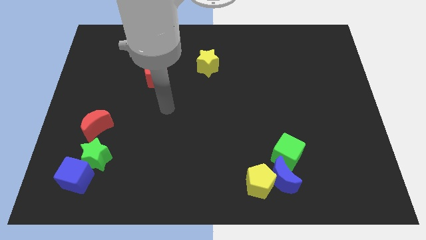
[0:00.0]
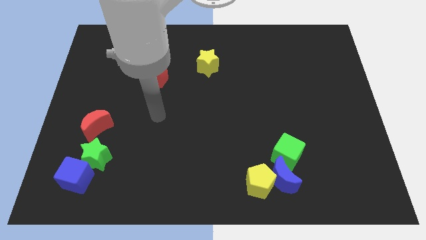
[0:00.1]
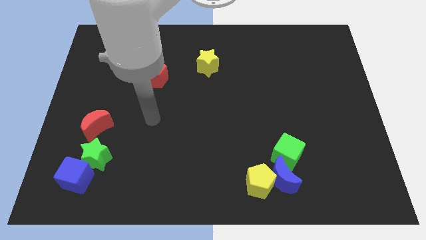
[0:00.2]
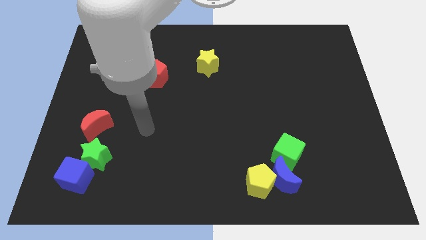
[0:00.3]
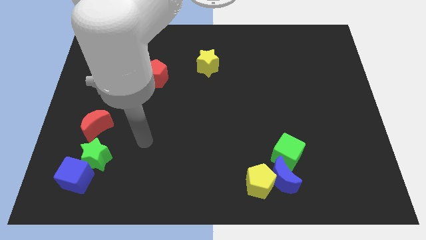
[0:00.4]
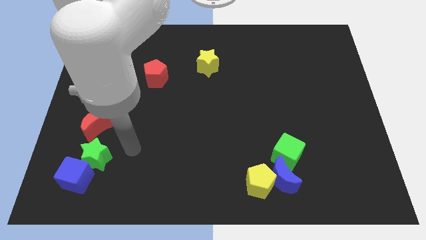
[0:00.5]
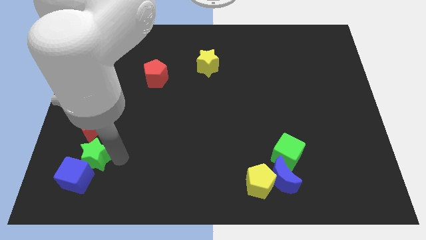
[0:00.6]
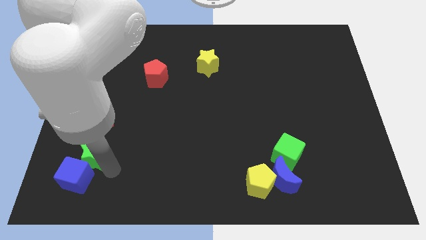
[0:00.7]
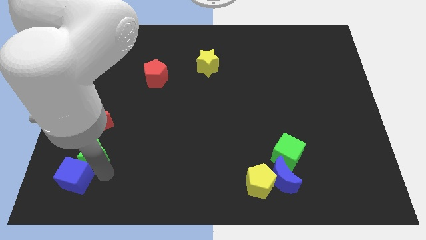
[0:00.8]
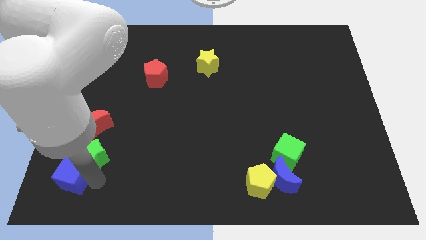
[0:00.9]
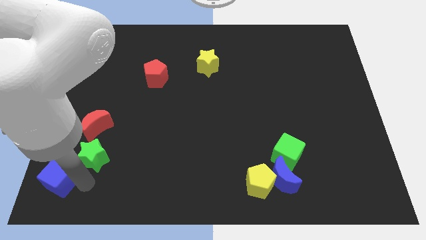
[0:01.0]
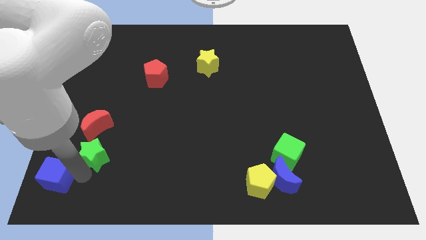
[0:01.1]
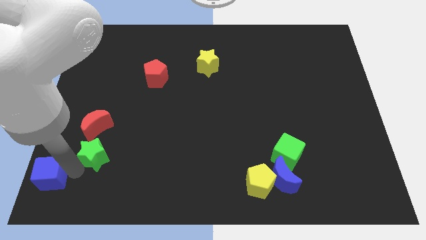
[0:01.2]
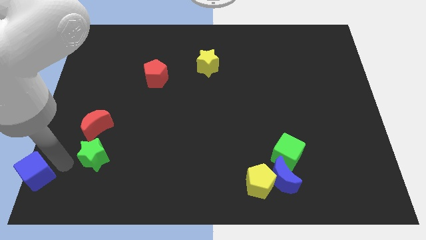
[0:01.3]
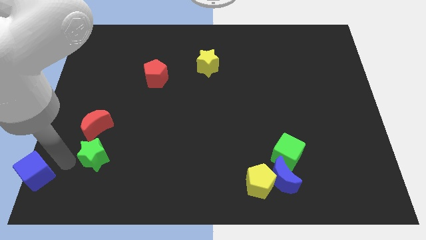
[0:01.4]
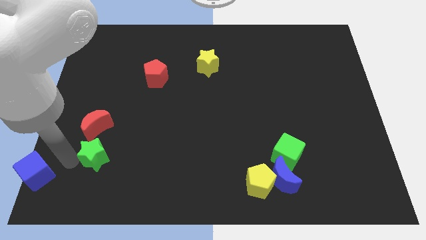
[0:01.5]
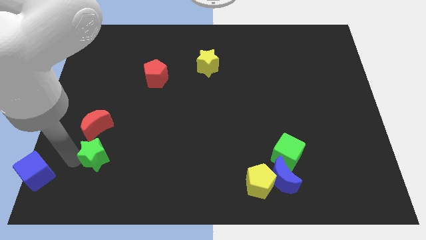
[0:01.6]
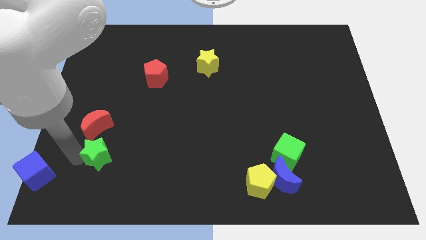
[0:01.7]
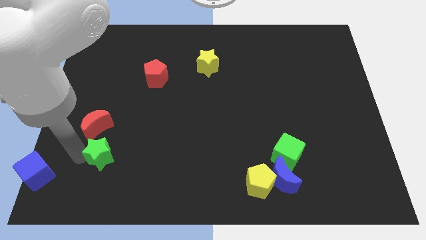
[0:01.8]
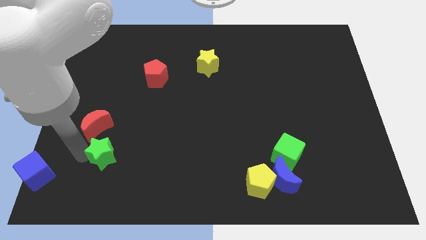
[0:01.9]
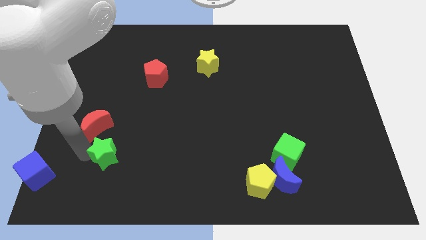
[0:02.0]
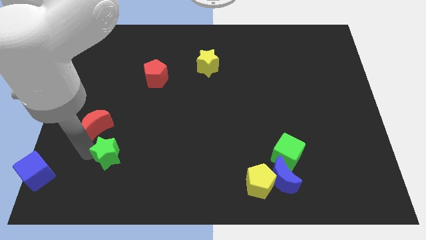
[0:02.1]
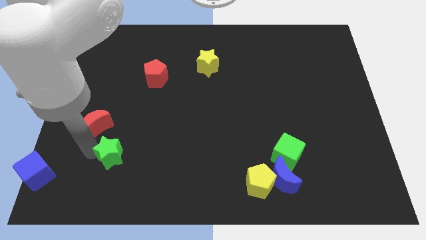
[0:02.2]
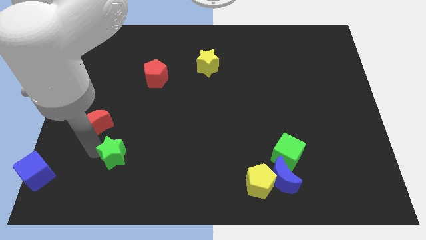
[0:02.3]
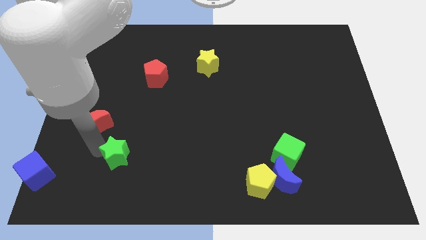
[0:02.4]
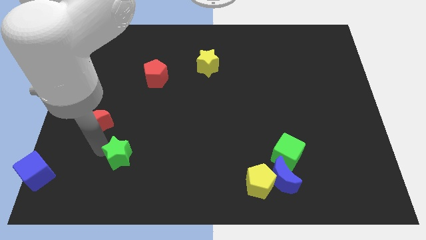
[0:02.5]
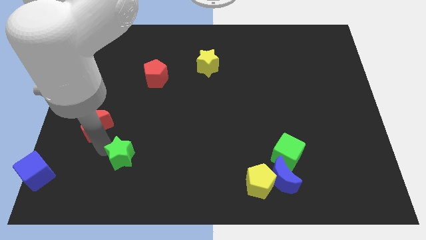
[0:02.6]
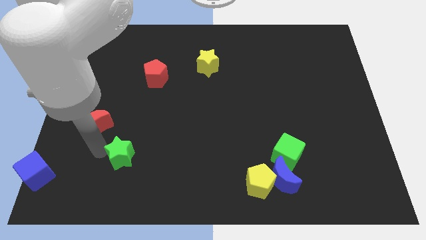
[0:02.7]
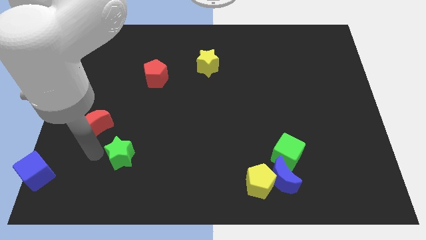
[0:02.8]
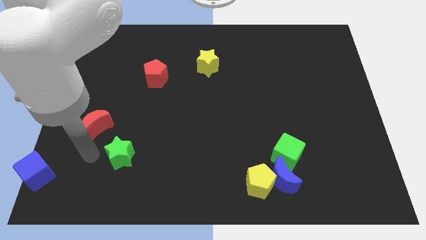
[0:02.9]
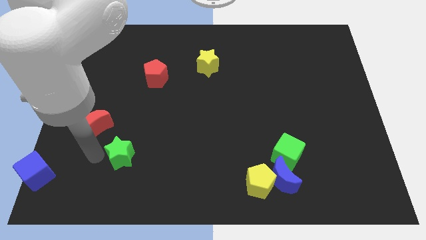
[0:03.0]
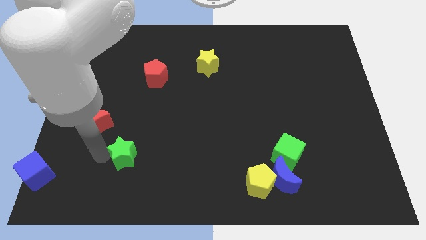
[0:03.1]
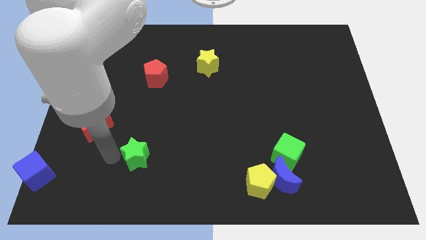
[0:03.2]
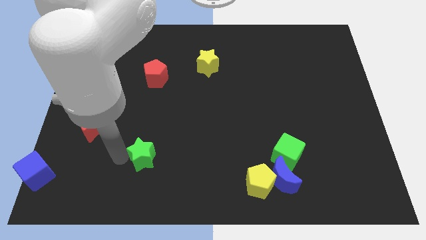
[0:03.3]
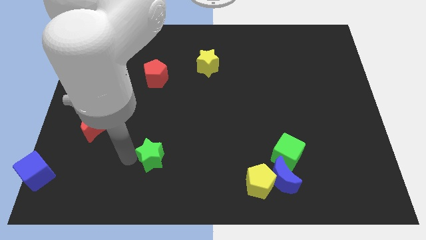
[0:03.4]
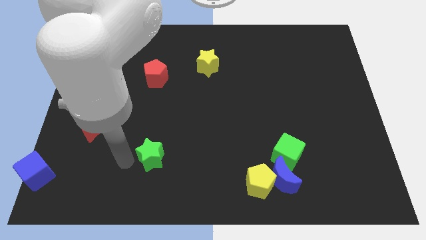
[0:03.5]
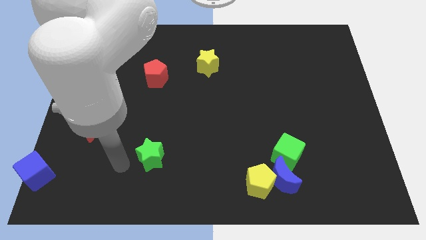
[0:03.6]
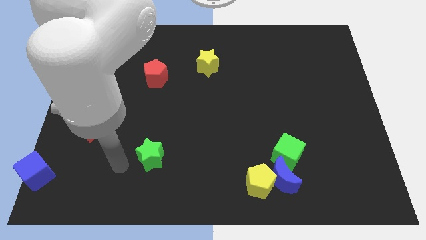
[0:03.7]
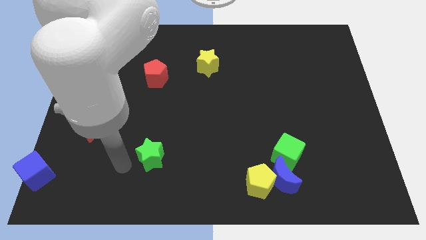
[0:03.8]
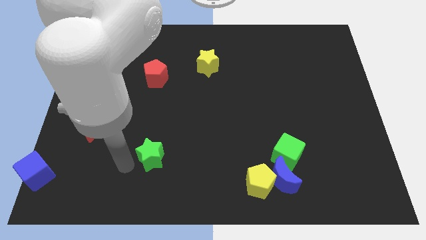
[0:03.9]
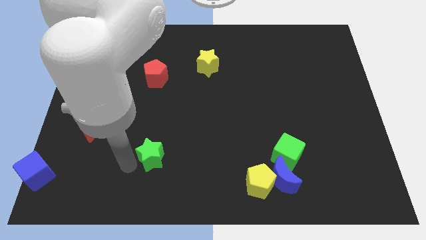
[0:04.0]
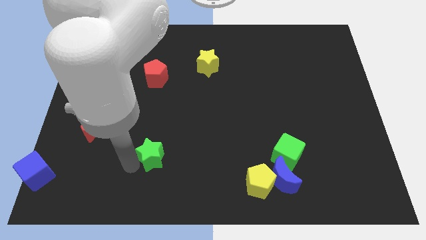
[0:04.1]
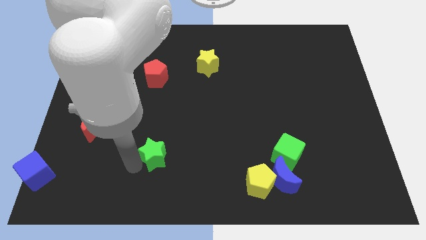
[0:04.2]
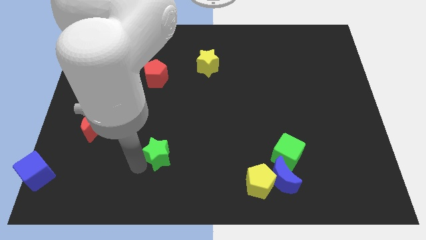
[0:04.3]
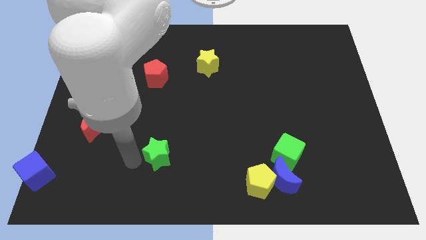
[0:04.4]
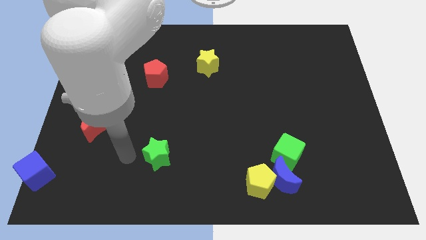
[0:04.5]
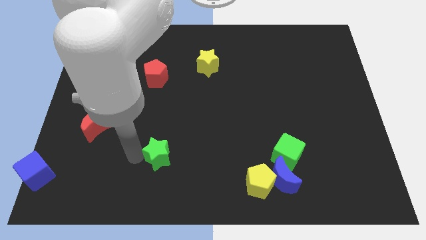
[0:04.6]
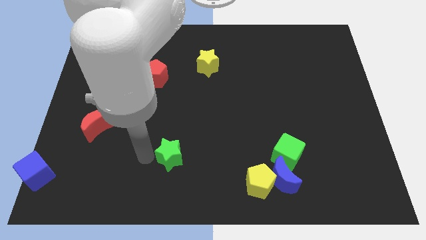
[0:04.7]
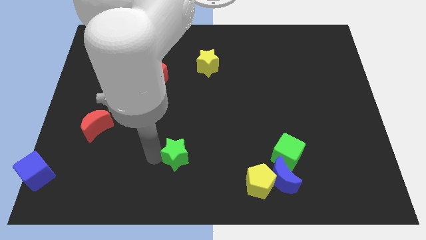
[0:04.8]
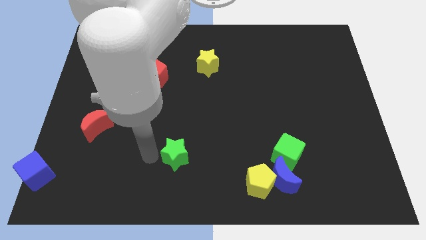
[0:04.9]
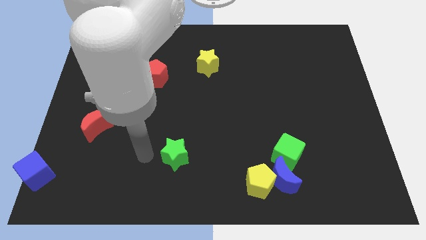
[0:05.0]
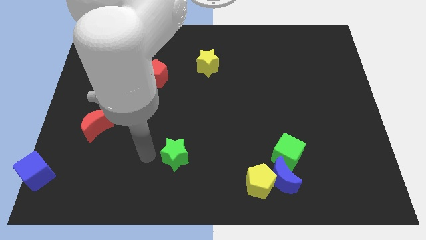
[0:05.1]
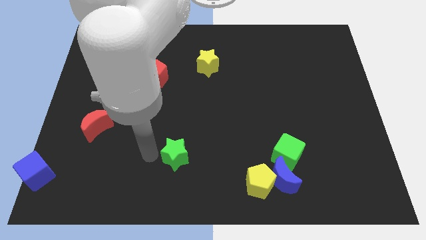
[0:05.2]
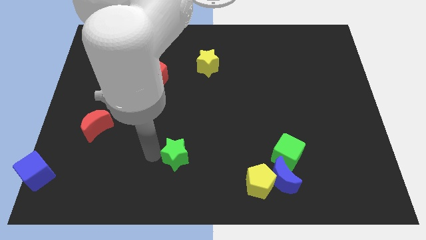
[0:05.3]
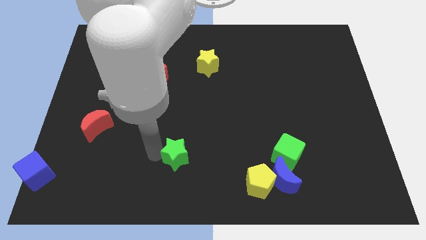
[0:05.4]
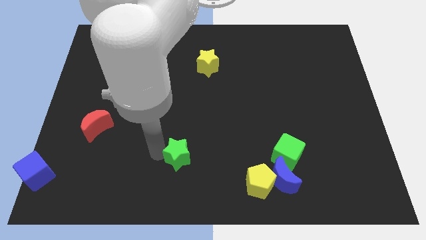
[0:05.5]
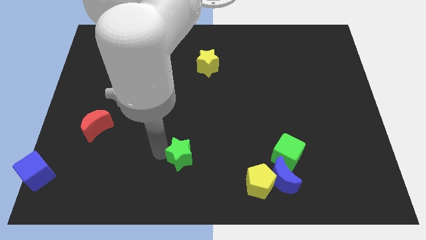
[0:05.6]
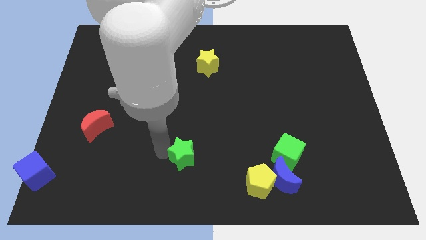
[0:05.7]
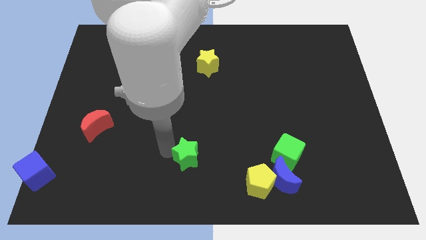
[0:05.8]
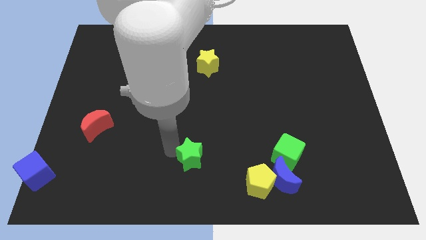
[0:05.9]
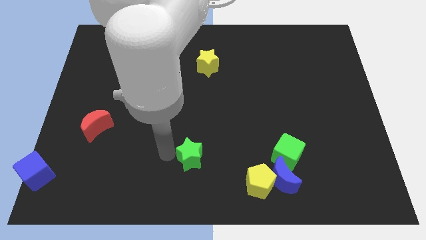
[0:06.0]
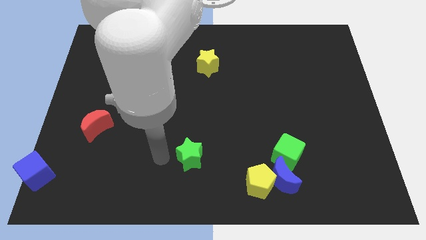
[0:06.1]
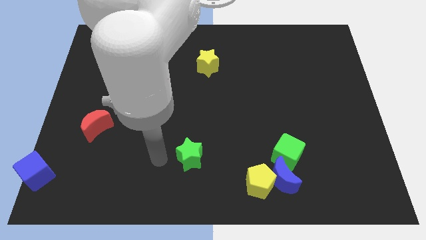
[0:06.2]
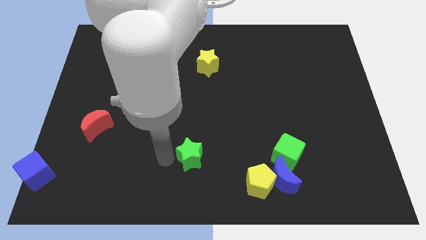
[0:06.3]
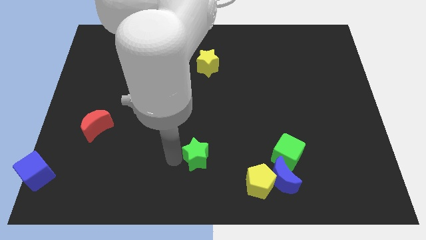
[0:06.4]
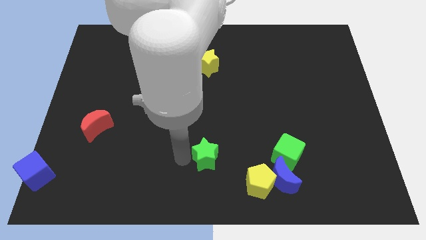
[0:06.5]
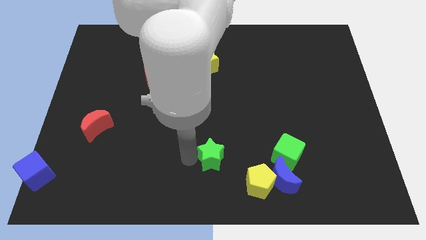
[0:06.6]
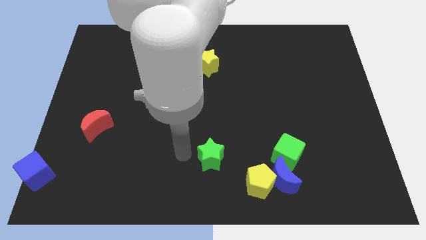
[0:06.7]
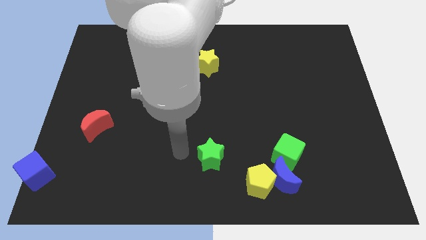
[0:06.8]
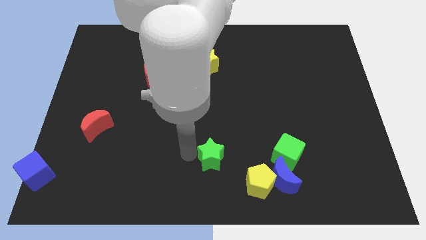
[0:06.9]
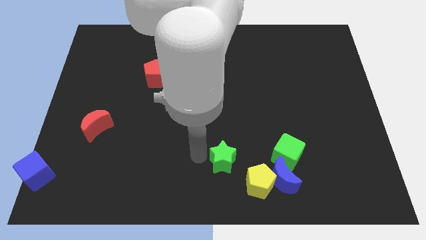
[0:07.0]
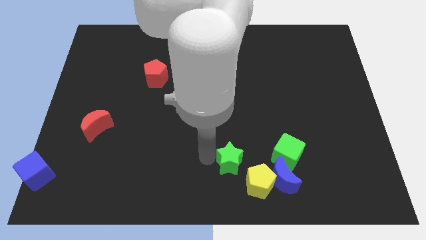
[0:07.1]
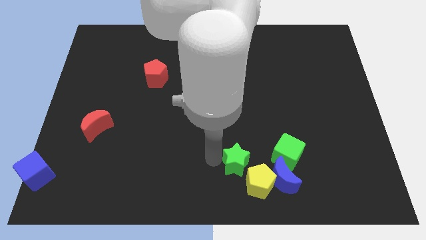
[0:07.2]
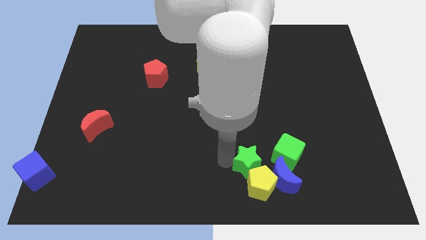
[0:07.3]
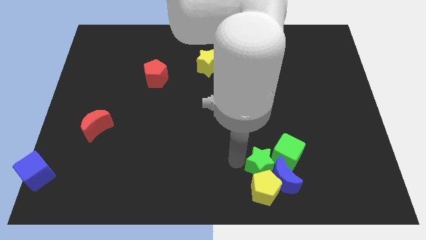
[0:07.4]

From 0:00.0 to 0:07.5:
push the green star next to the blue moon

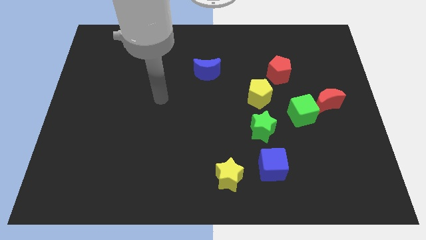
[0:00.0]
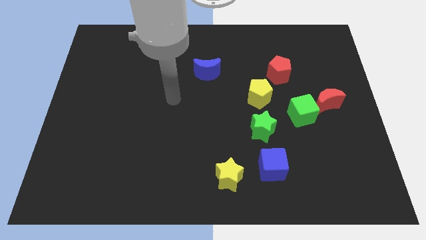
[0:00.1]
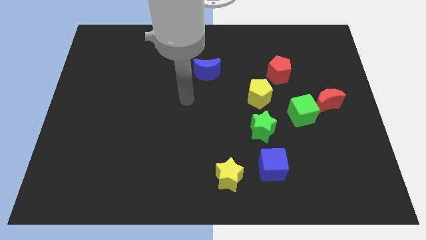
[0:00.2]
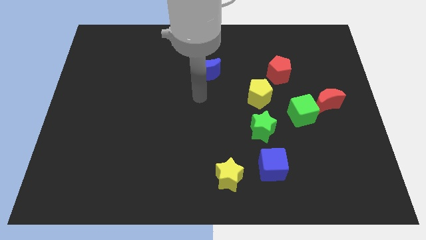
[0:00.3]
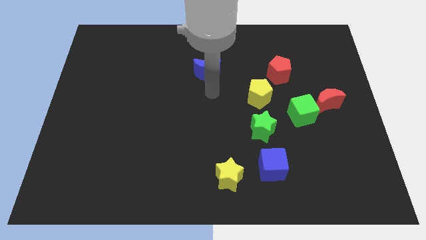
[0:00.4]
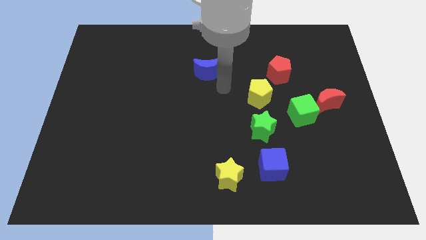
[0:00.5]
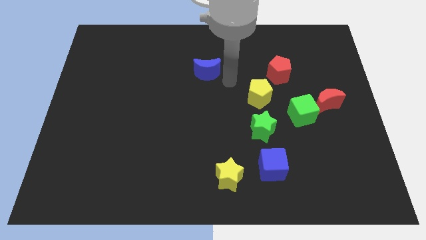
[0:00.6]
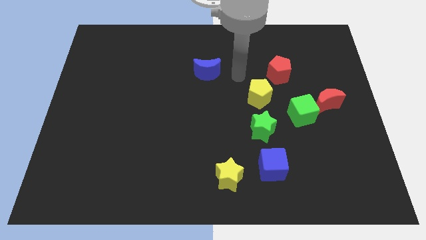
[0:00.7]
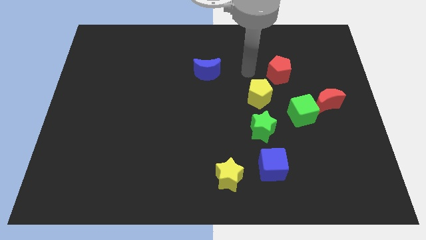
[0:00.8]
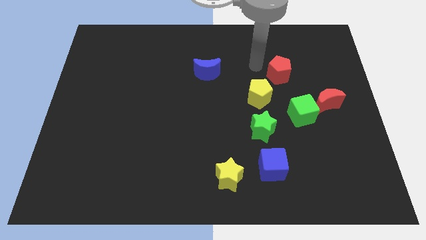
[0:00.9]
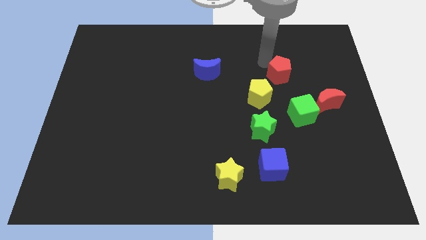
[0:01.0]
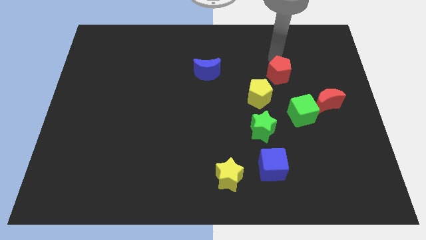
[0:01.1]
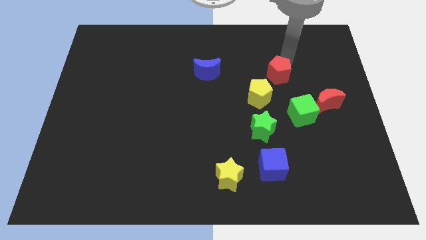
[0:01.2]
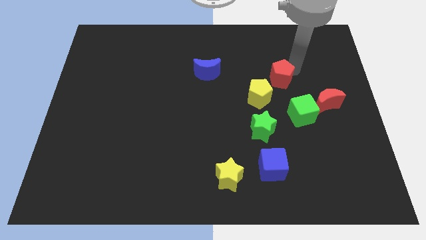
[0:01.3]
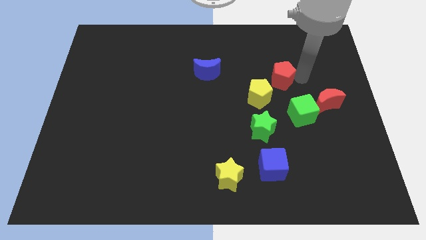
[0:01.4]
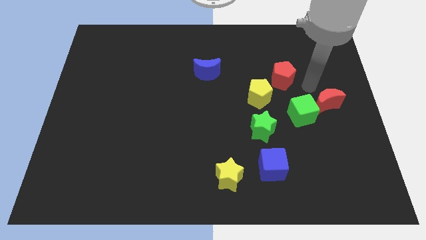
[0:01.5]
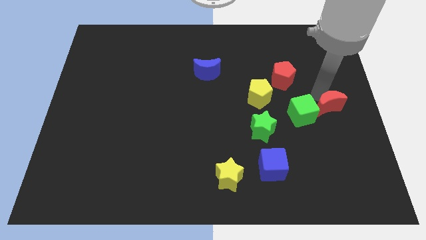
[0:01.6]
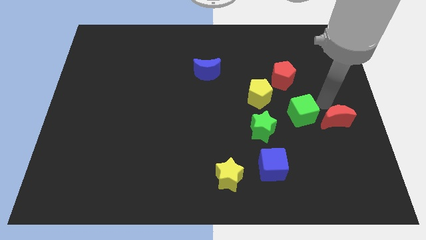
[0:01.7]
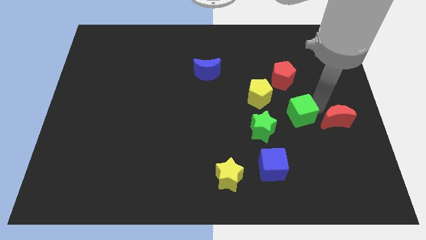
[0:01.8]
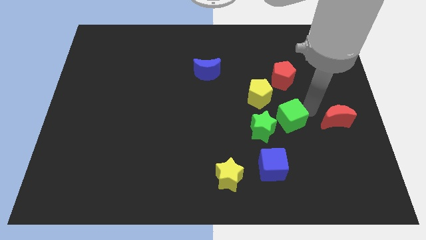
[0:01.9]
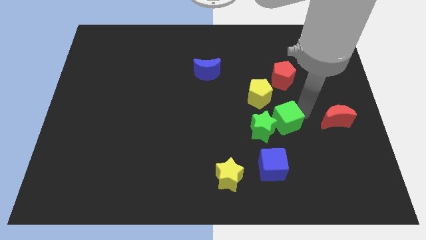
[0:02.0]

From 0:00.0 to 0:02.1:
slide the green cube towards the green star
